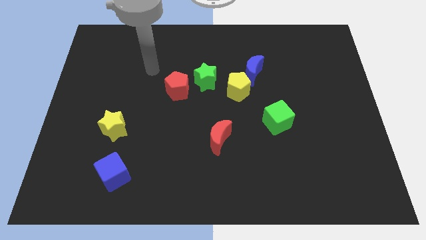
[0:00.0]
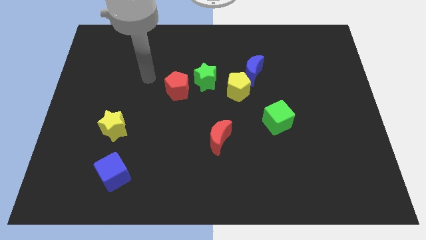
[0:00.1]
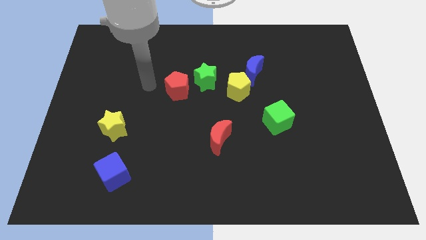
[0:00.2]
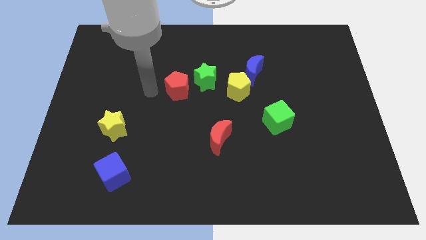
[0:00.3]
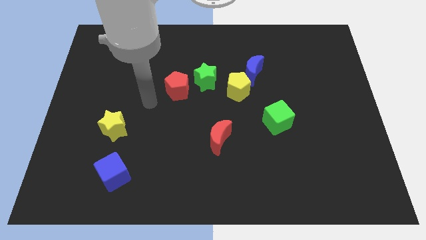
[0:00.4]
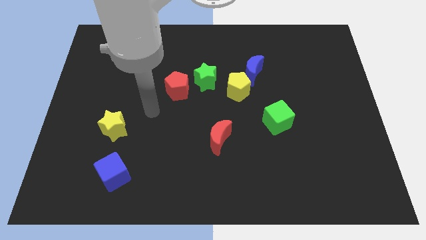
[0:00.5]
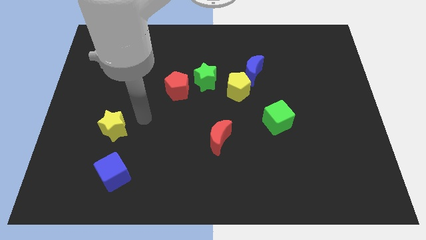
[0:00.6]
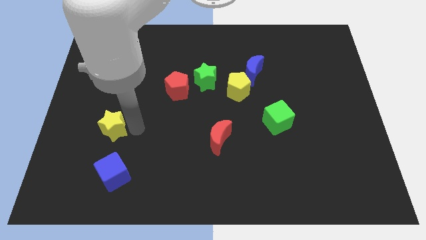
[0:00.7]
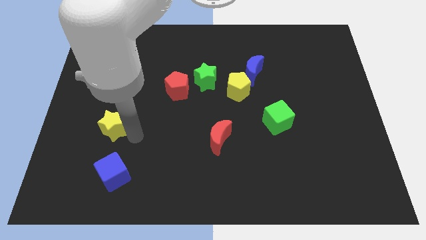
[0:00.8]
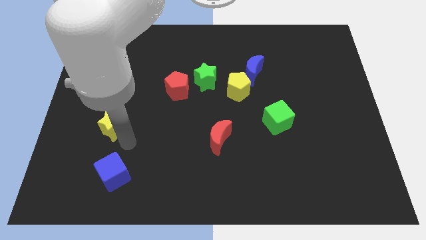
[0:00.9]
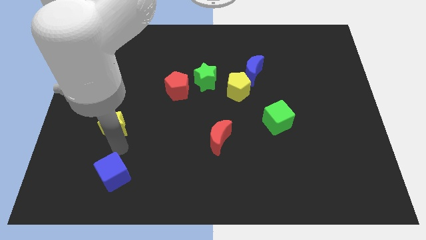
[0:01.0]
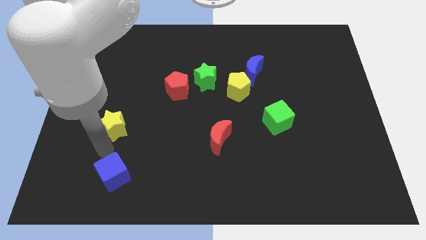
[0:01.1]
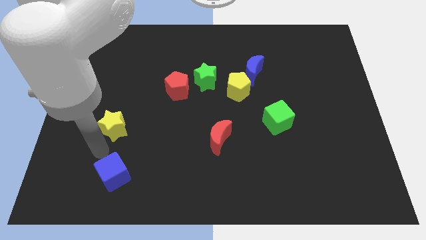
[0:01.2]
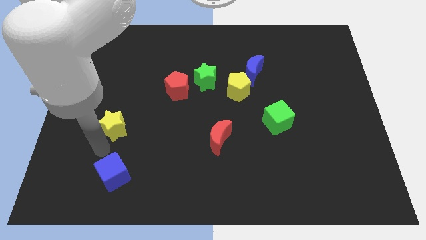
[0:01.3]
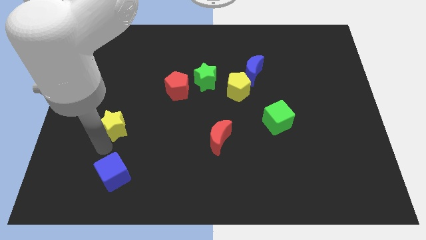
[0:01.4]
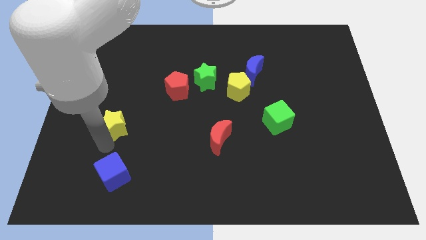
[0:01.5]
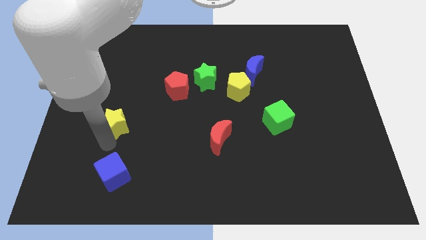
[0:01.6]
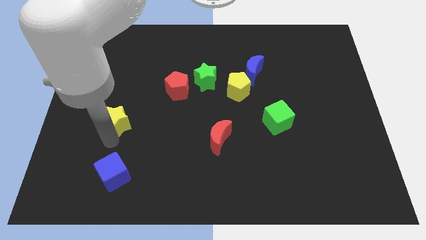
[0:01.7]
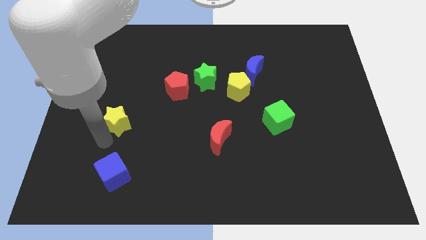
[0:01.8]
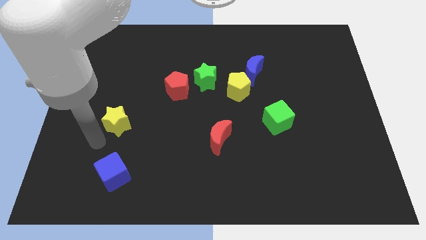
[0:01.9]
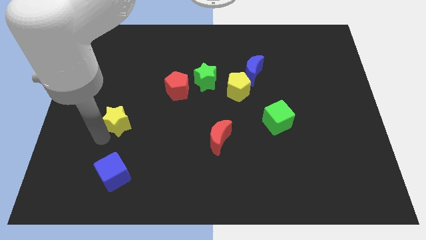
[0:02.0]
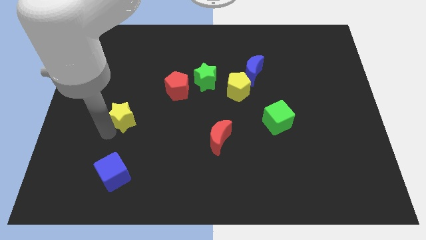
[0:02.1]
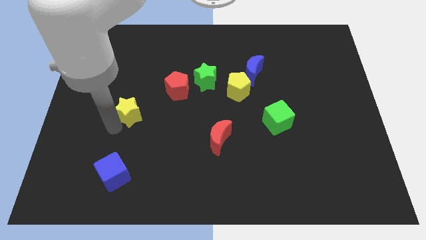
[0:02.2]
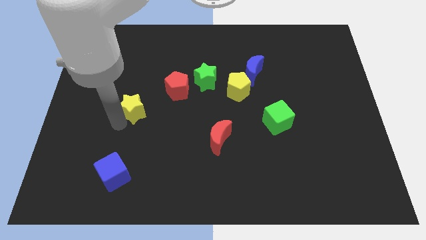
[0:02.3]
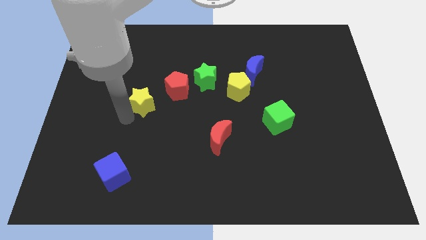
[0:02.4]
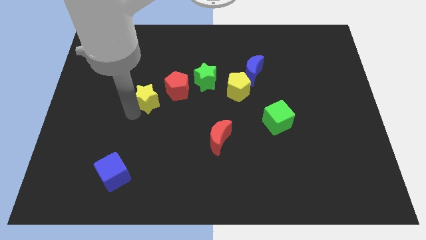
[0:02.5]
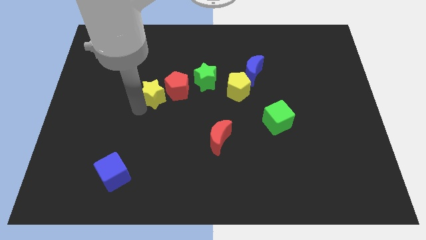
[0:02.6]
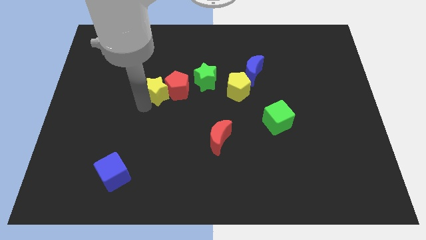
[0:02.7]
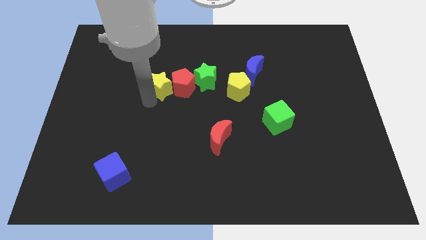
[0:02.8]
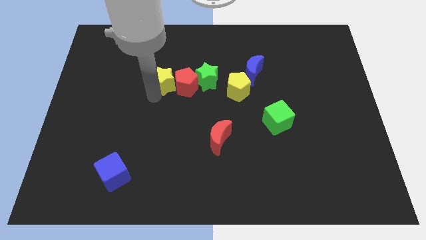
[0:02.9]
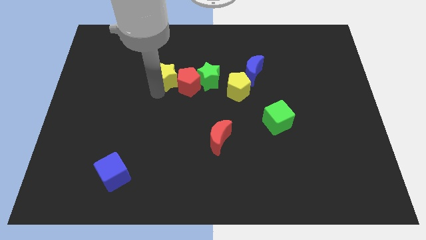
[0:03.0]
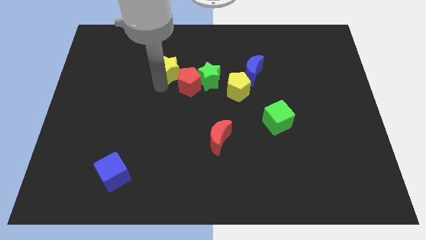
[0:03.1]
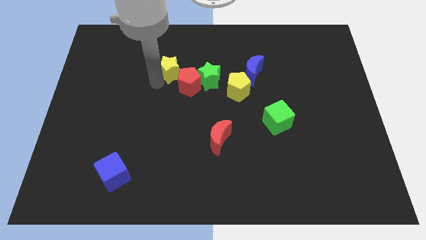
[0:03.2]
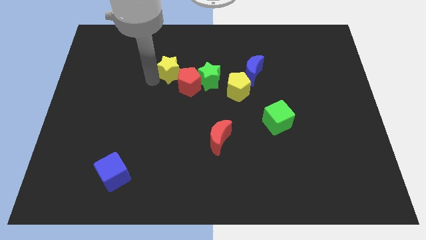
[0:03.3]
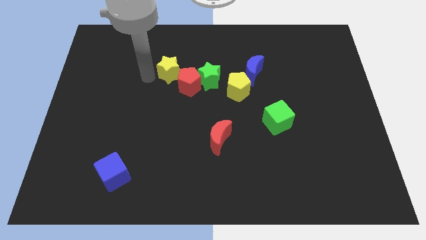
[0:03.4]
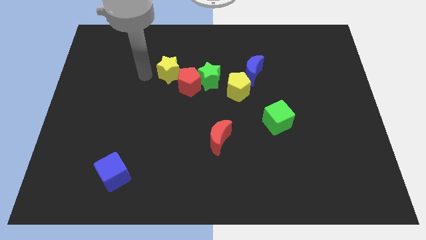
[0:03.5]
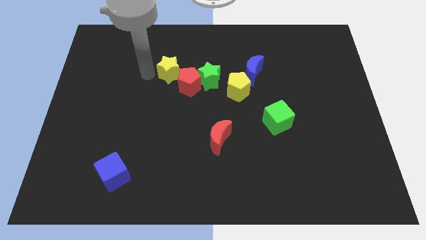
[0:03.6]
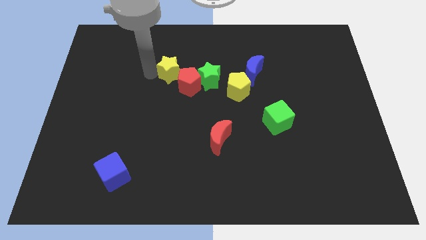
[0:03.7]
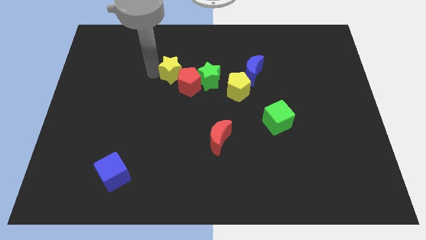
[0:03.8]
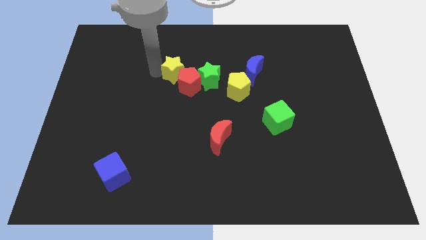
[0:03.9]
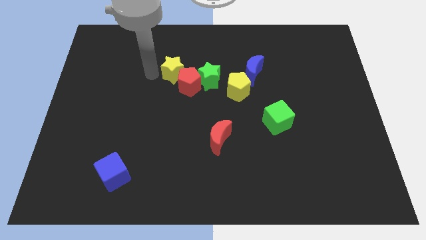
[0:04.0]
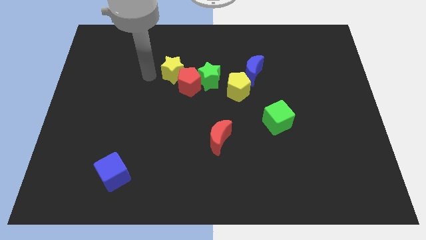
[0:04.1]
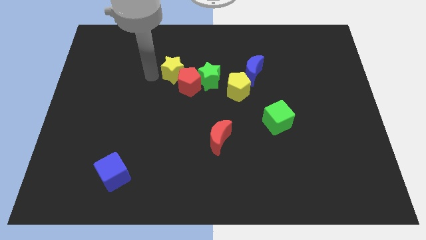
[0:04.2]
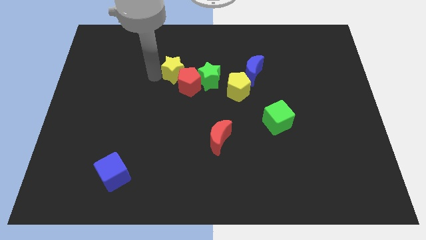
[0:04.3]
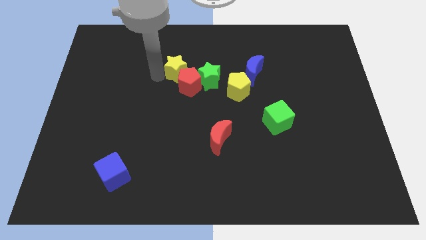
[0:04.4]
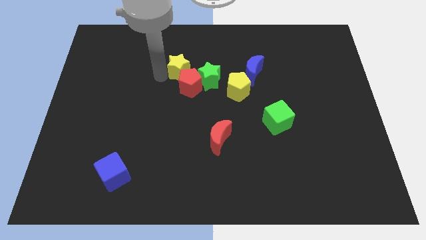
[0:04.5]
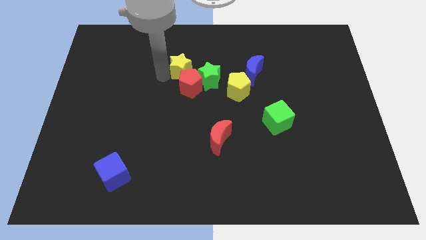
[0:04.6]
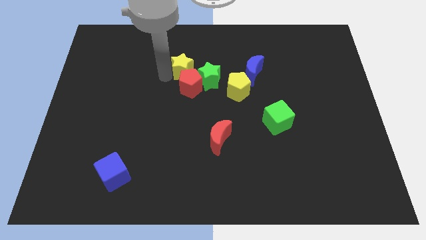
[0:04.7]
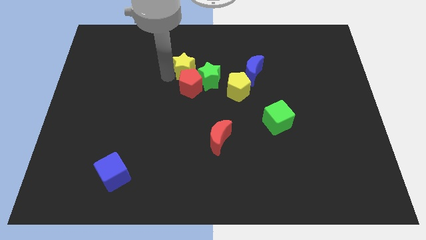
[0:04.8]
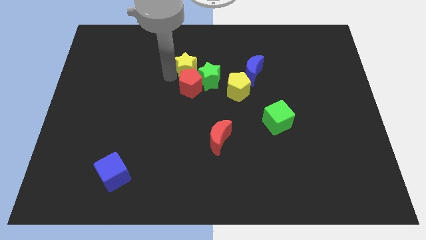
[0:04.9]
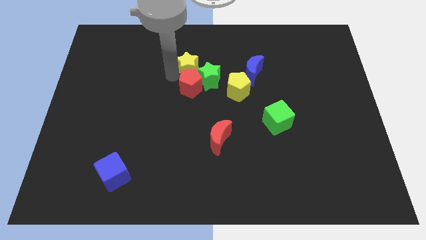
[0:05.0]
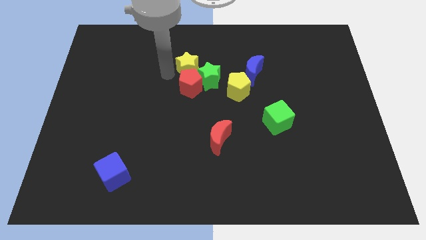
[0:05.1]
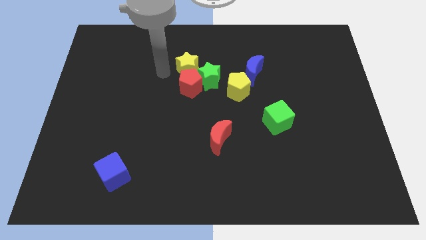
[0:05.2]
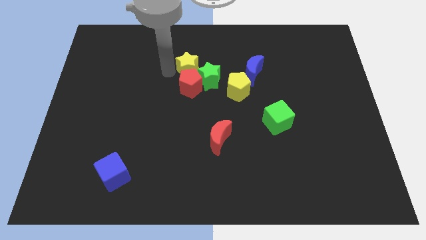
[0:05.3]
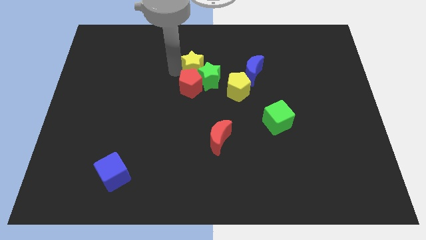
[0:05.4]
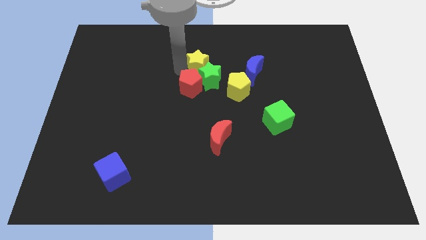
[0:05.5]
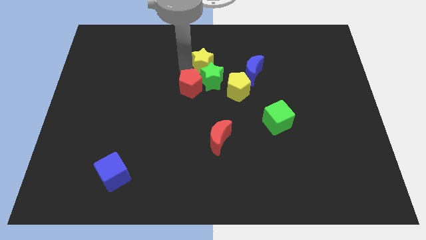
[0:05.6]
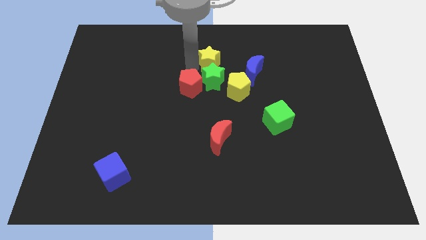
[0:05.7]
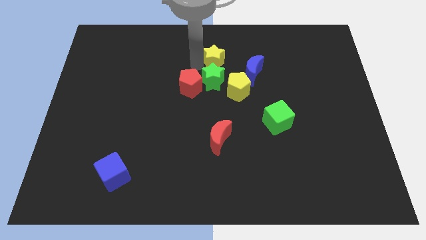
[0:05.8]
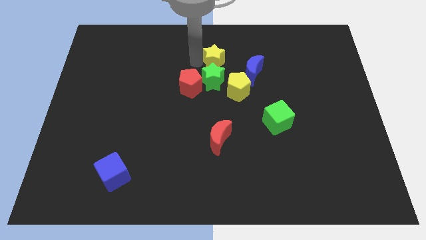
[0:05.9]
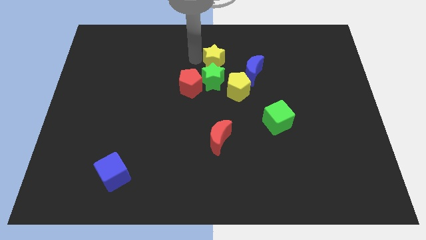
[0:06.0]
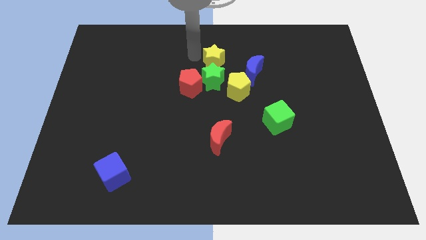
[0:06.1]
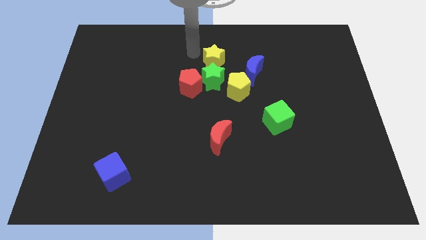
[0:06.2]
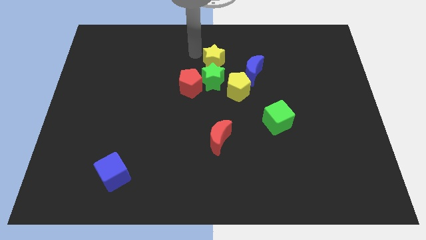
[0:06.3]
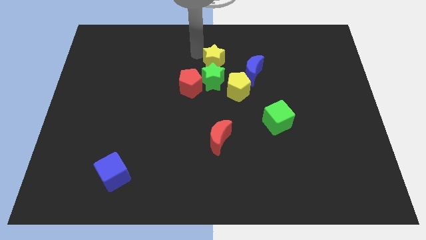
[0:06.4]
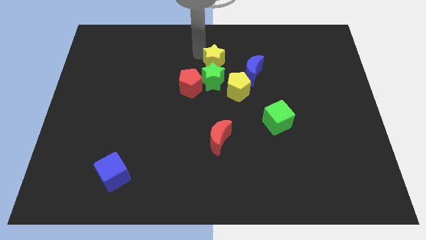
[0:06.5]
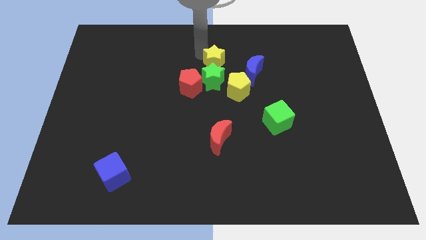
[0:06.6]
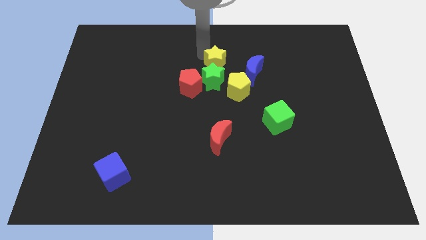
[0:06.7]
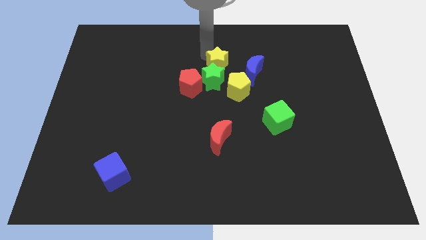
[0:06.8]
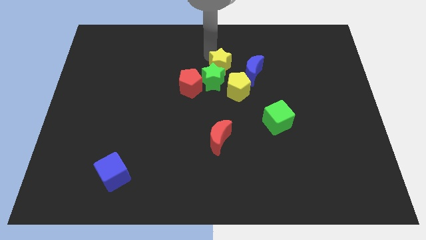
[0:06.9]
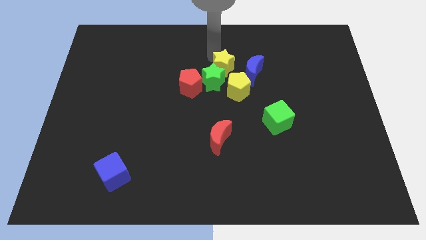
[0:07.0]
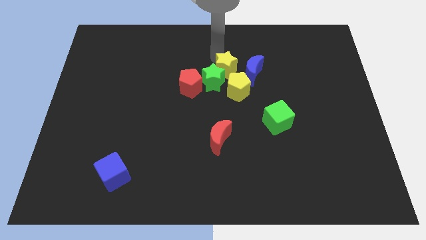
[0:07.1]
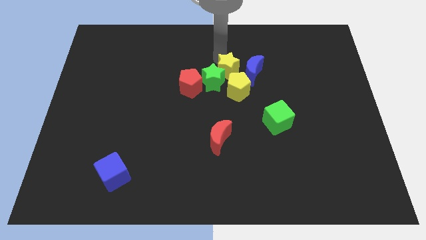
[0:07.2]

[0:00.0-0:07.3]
move the yellow star next to the blue moon
